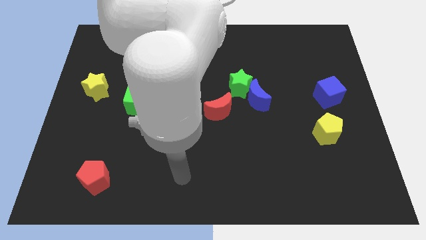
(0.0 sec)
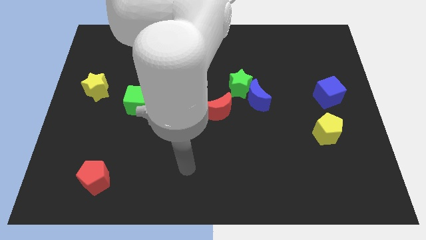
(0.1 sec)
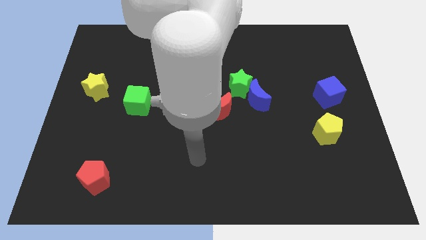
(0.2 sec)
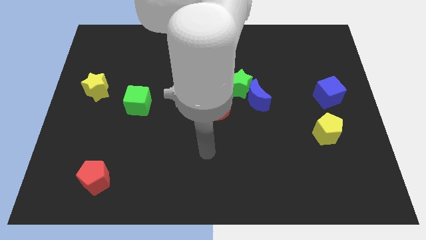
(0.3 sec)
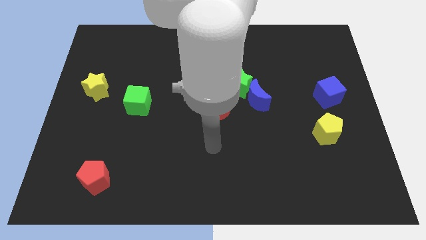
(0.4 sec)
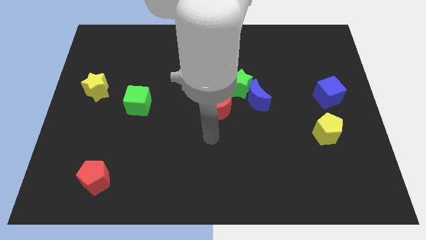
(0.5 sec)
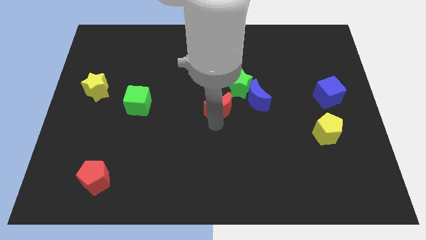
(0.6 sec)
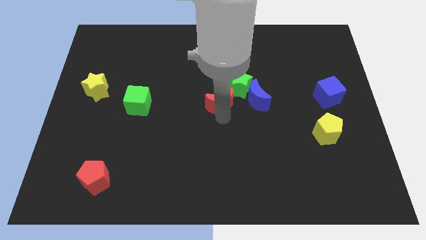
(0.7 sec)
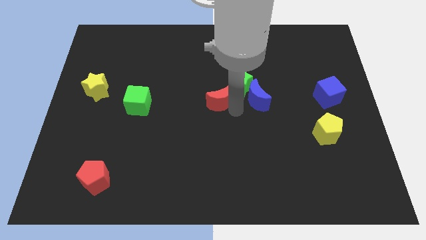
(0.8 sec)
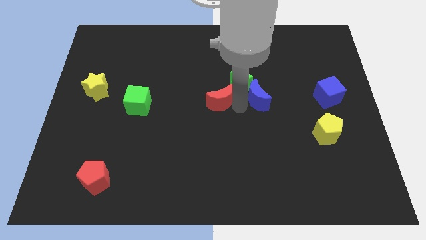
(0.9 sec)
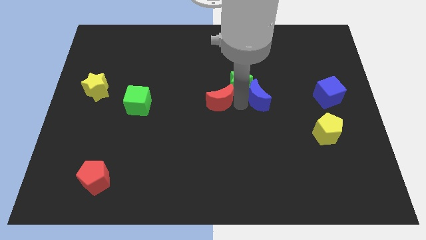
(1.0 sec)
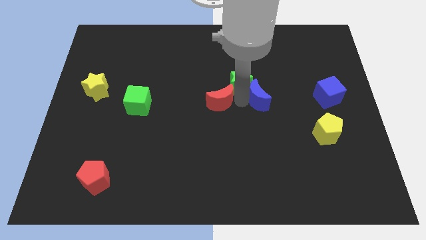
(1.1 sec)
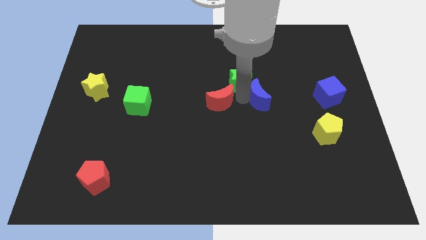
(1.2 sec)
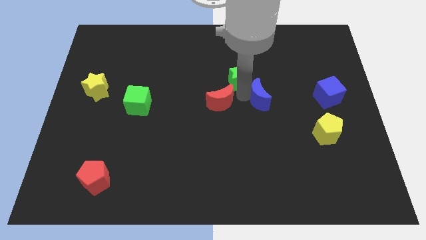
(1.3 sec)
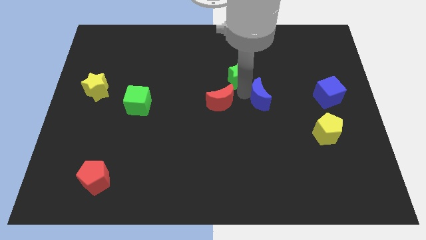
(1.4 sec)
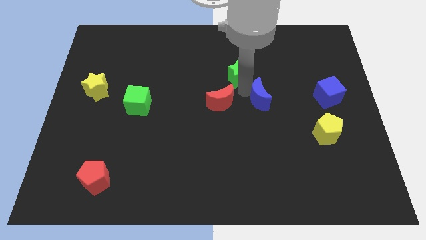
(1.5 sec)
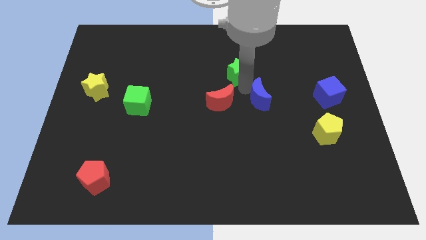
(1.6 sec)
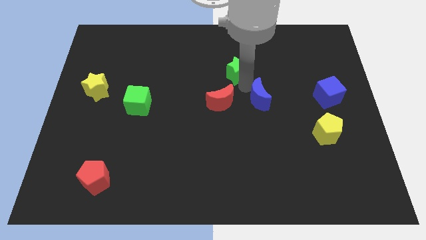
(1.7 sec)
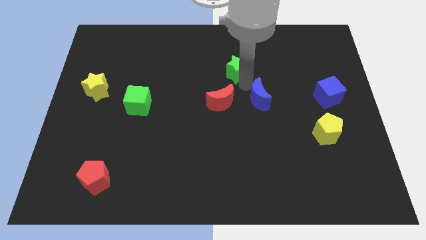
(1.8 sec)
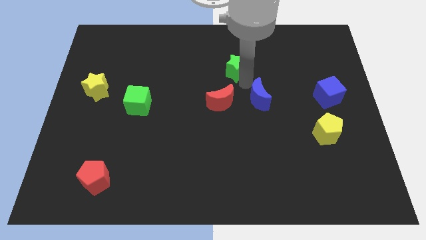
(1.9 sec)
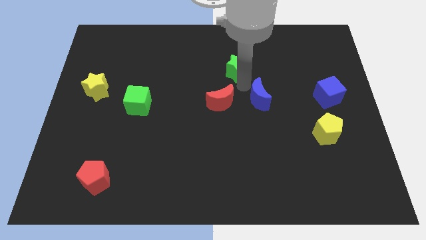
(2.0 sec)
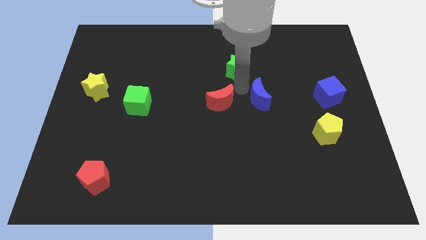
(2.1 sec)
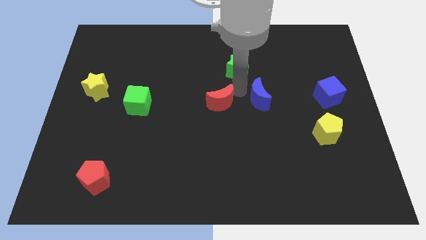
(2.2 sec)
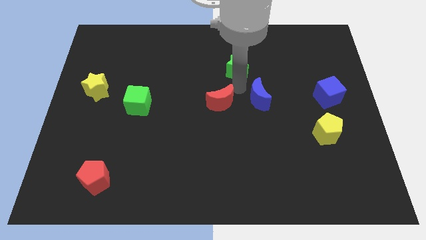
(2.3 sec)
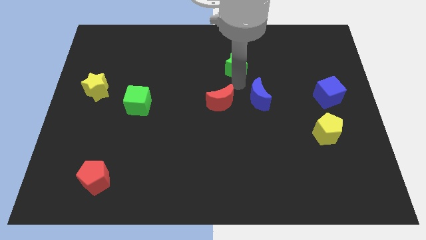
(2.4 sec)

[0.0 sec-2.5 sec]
move the green star away from the blue moon and red moon

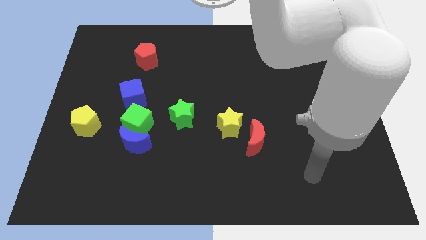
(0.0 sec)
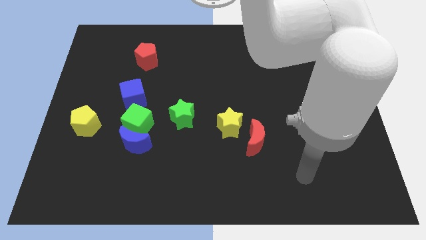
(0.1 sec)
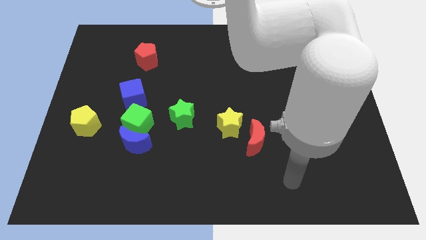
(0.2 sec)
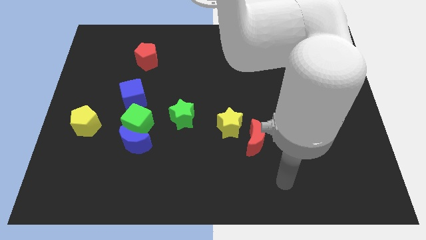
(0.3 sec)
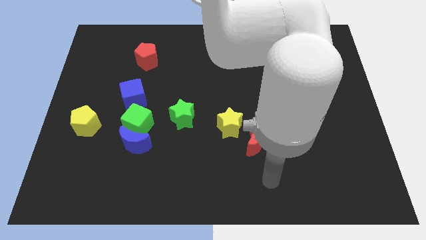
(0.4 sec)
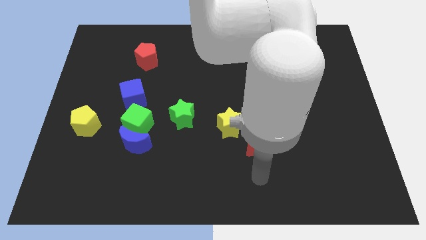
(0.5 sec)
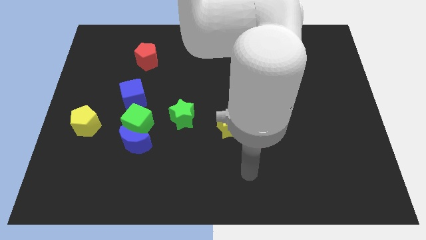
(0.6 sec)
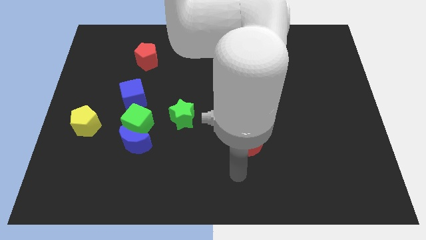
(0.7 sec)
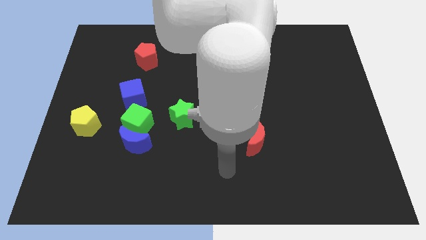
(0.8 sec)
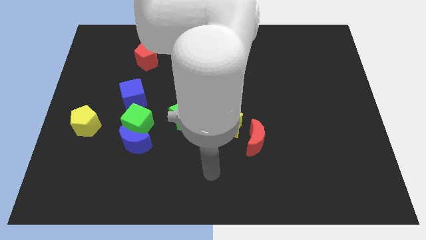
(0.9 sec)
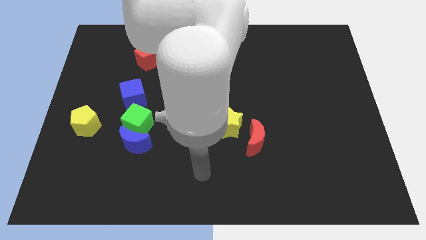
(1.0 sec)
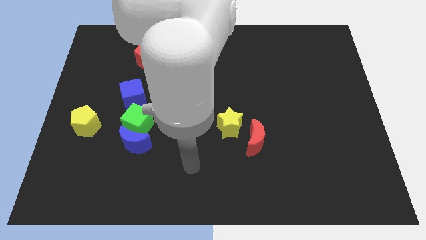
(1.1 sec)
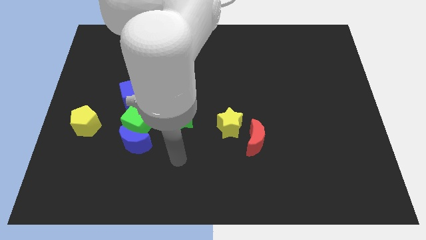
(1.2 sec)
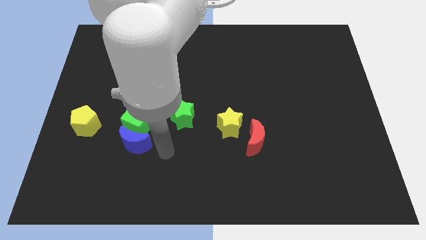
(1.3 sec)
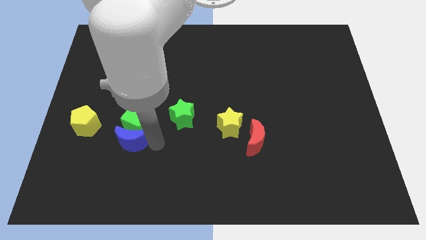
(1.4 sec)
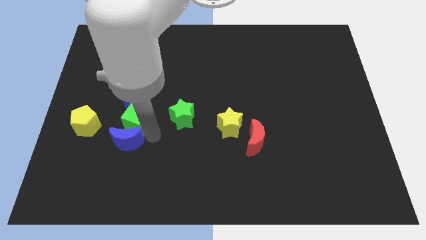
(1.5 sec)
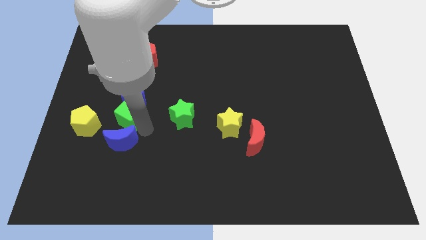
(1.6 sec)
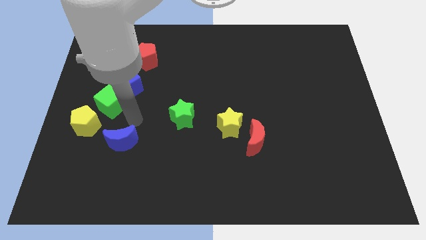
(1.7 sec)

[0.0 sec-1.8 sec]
pull the blue moon apart from the green cube

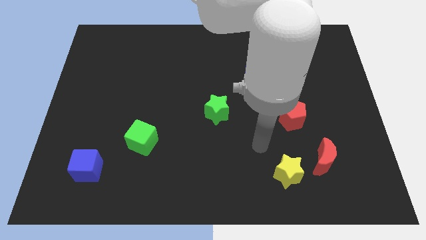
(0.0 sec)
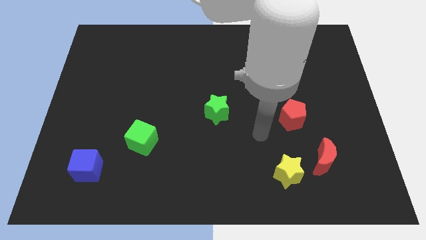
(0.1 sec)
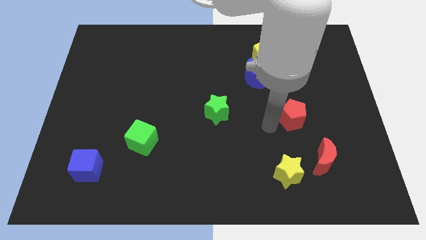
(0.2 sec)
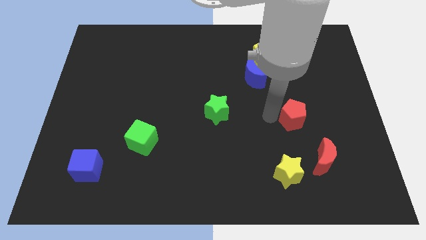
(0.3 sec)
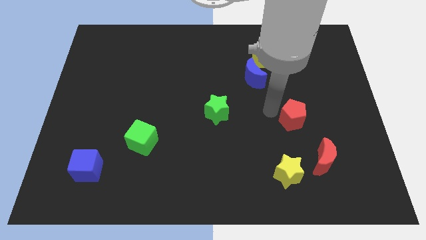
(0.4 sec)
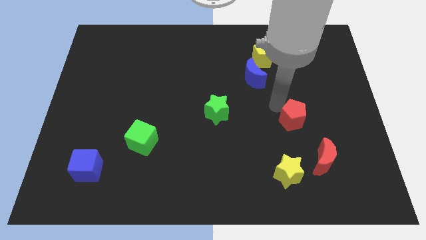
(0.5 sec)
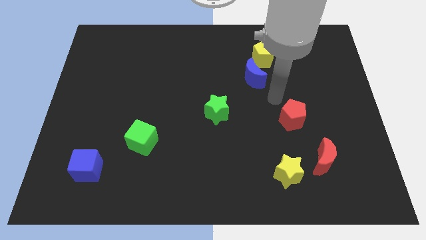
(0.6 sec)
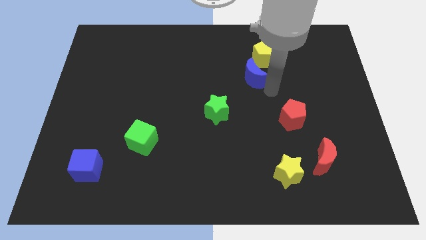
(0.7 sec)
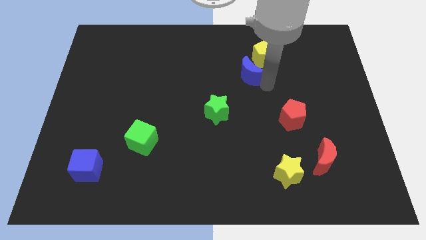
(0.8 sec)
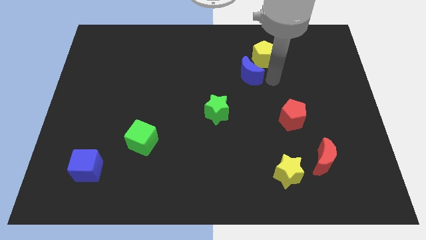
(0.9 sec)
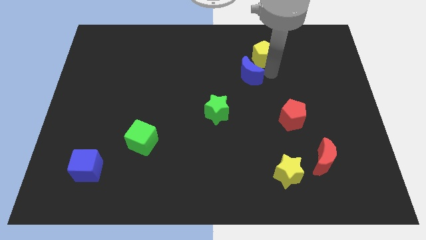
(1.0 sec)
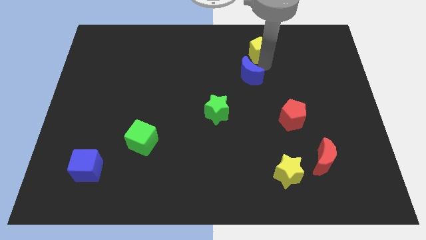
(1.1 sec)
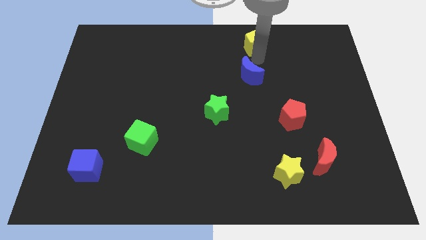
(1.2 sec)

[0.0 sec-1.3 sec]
move the blue moon away from the yellow pentagon

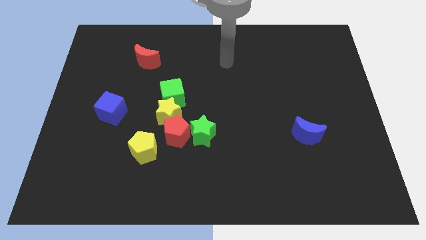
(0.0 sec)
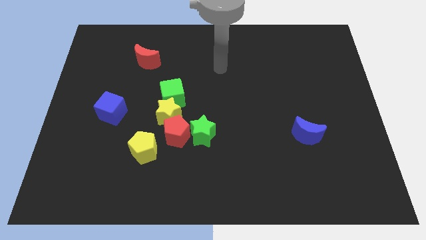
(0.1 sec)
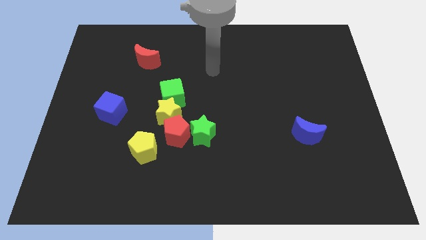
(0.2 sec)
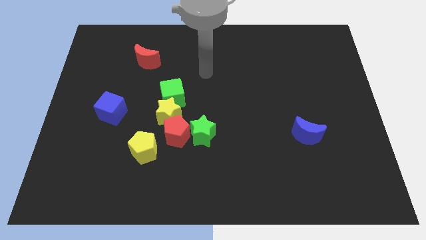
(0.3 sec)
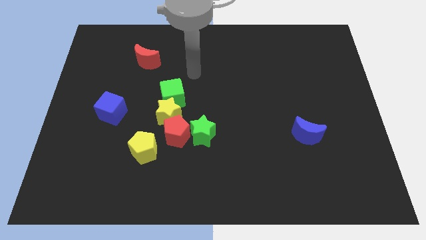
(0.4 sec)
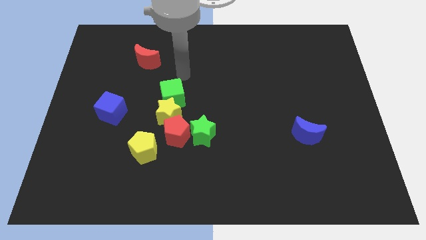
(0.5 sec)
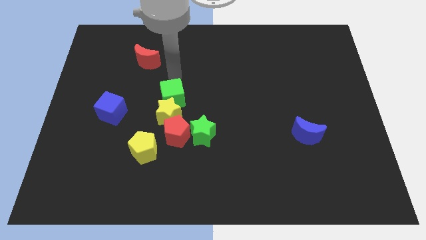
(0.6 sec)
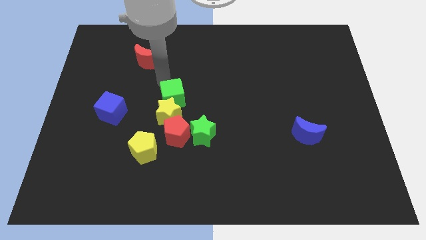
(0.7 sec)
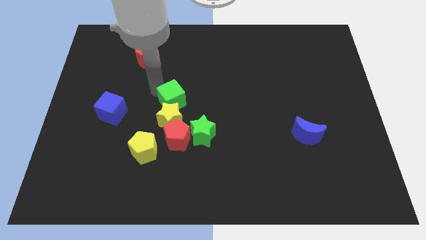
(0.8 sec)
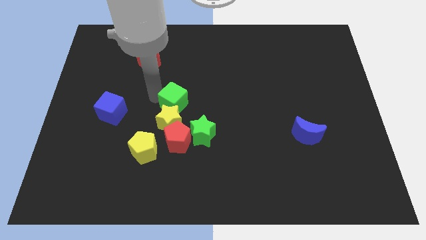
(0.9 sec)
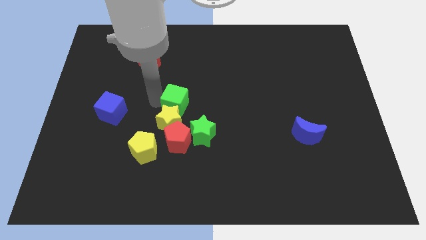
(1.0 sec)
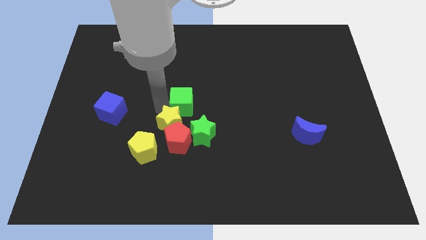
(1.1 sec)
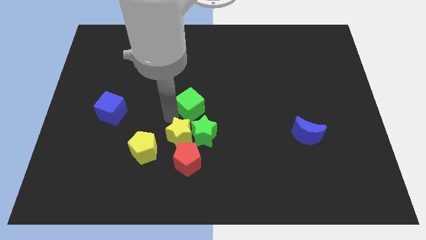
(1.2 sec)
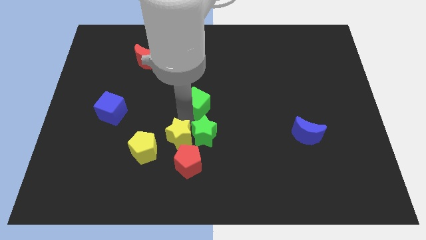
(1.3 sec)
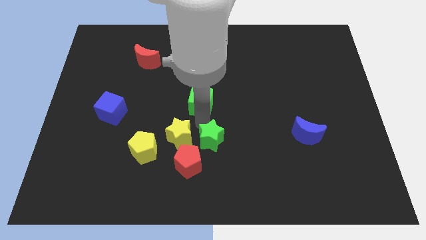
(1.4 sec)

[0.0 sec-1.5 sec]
pull the green cube apart from the yellow star

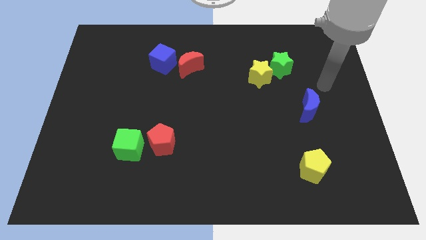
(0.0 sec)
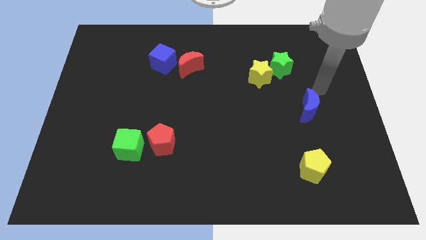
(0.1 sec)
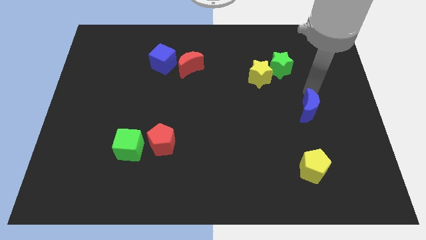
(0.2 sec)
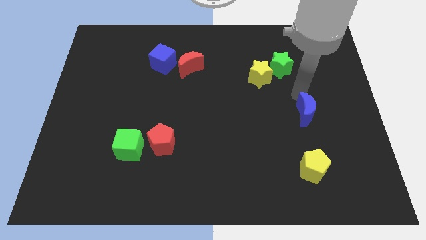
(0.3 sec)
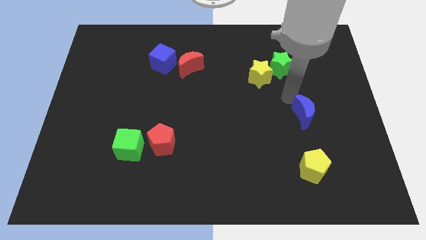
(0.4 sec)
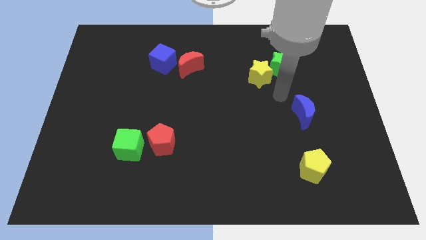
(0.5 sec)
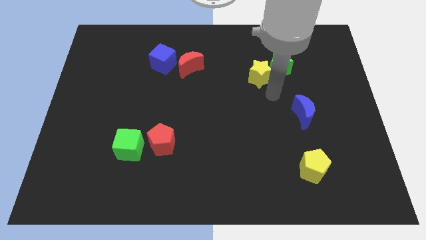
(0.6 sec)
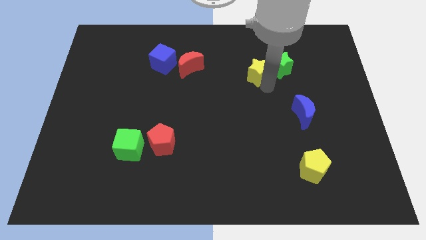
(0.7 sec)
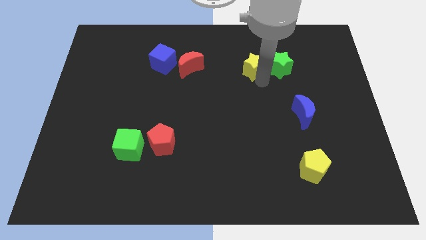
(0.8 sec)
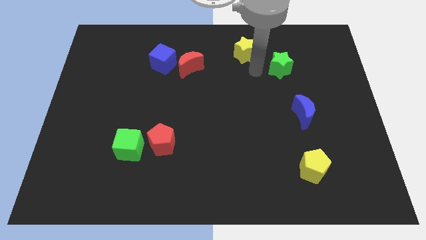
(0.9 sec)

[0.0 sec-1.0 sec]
pull the green star apart from the yellow star

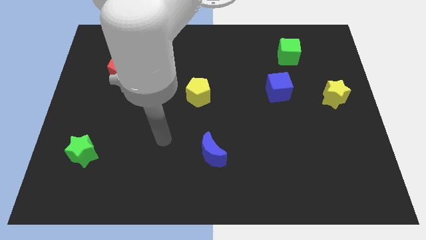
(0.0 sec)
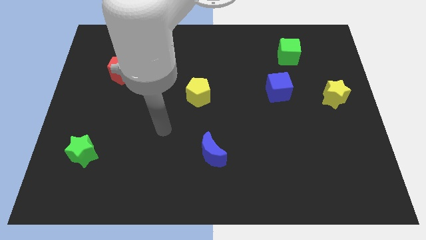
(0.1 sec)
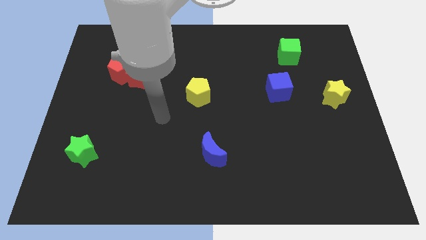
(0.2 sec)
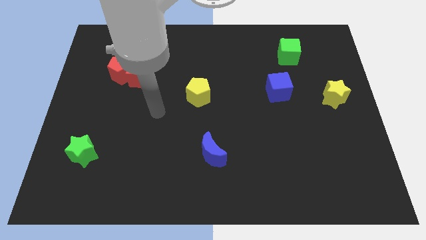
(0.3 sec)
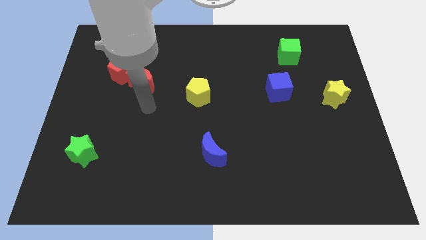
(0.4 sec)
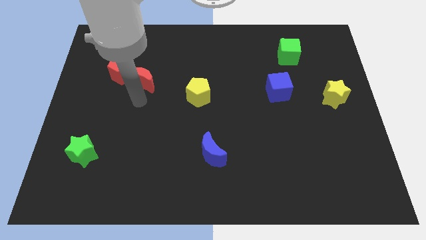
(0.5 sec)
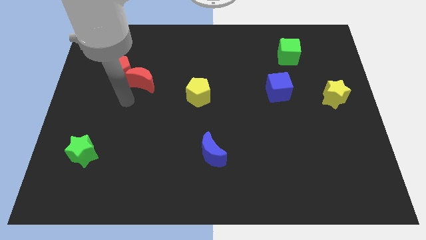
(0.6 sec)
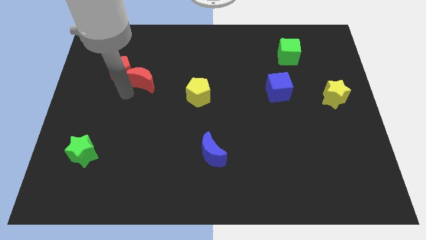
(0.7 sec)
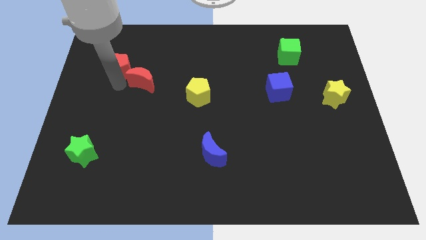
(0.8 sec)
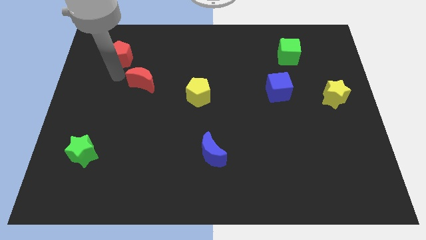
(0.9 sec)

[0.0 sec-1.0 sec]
pull the red moon apart from the red pentagon

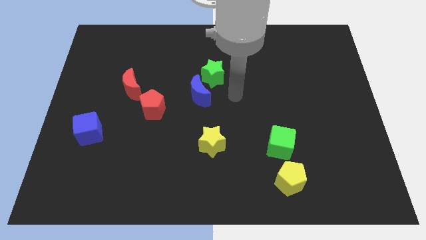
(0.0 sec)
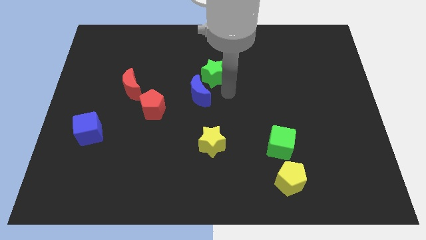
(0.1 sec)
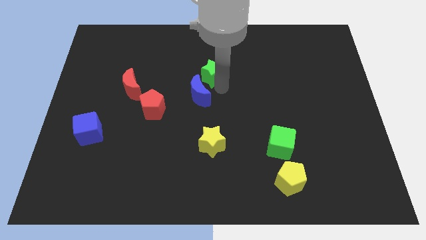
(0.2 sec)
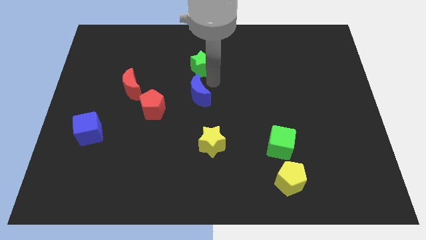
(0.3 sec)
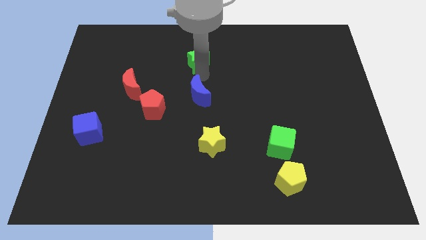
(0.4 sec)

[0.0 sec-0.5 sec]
separate the blue moon from the green star
